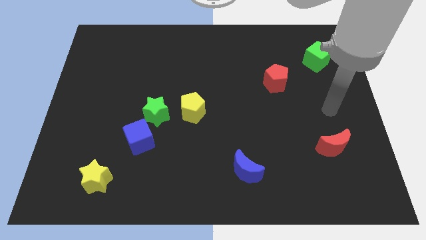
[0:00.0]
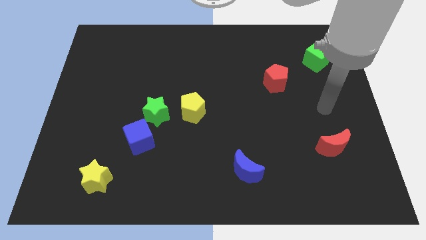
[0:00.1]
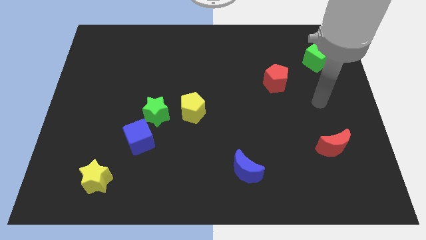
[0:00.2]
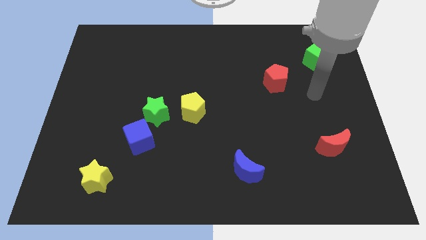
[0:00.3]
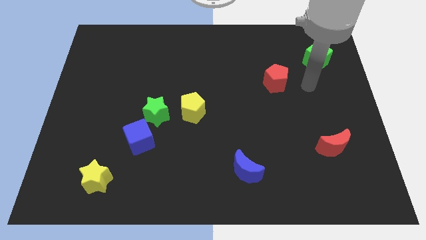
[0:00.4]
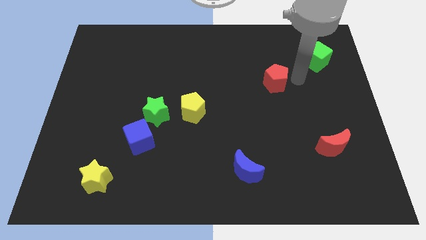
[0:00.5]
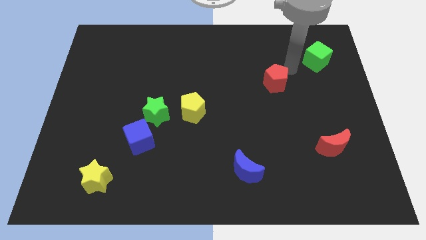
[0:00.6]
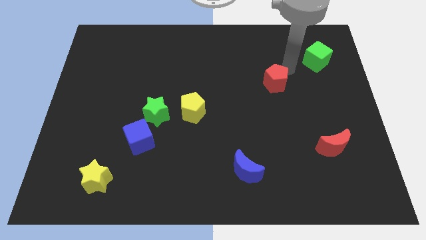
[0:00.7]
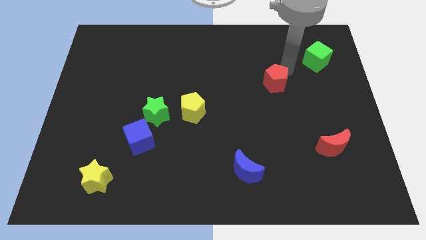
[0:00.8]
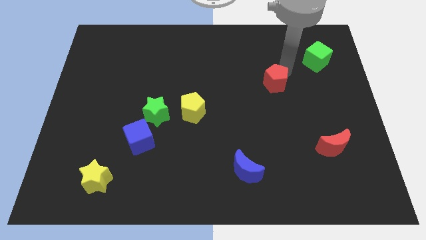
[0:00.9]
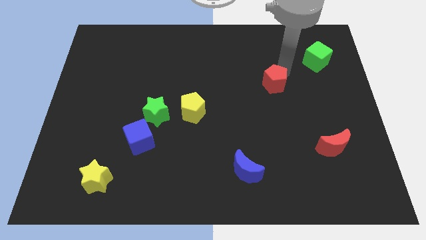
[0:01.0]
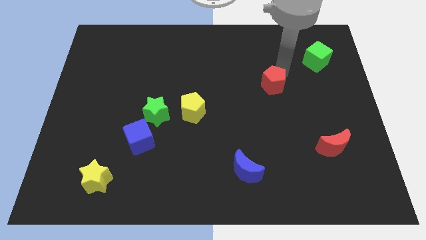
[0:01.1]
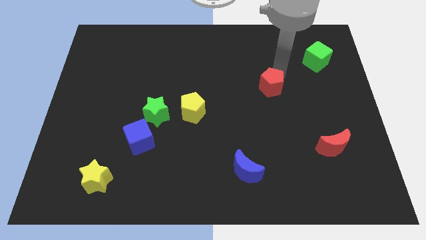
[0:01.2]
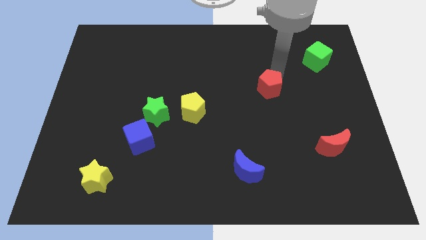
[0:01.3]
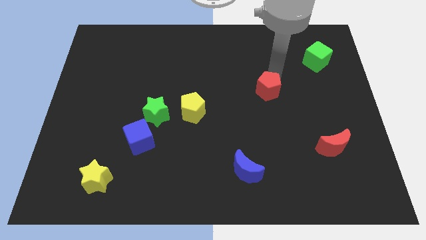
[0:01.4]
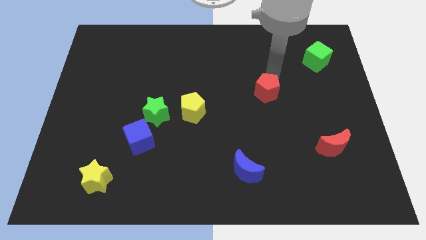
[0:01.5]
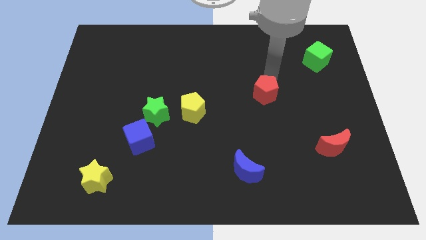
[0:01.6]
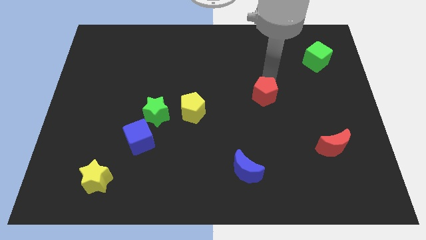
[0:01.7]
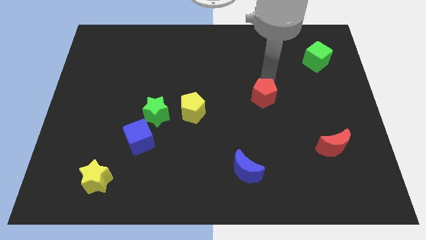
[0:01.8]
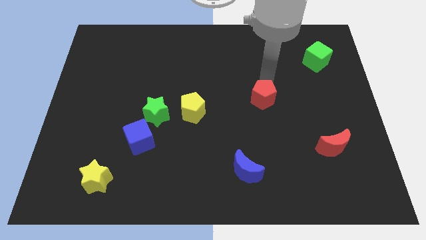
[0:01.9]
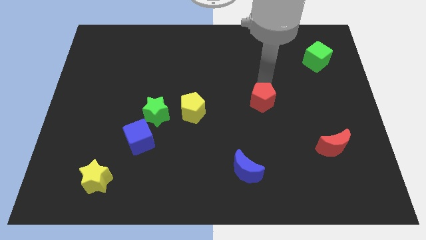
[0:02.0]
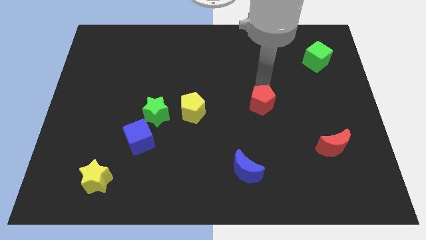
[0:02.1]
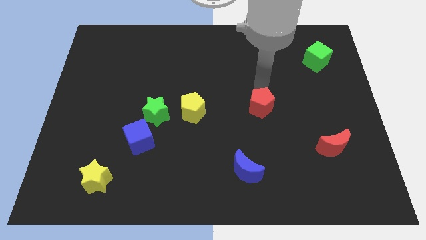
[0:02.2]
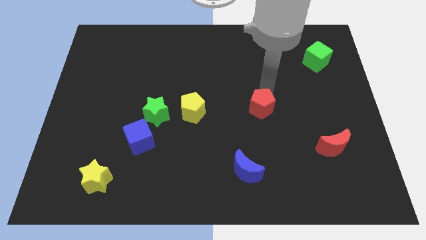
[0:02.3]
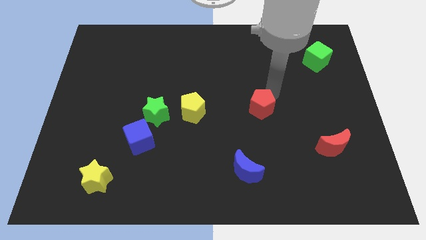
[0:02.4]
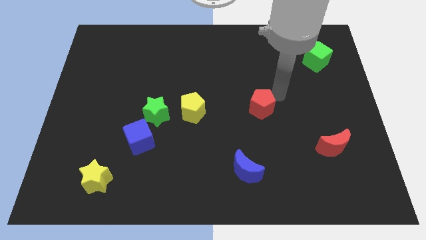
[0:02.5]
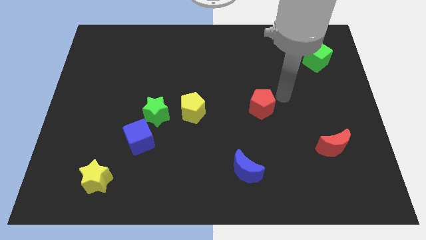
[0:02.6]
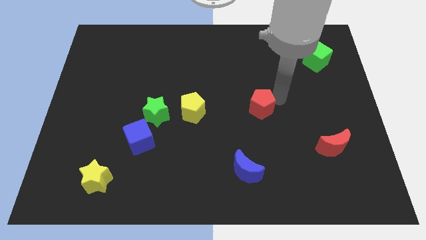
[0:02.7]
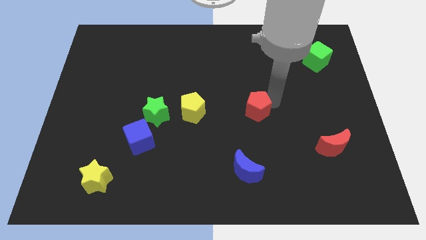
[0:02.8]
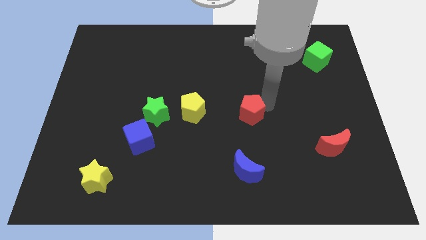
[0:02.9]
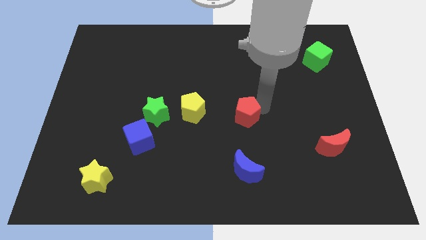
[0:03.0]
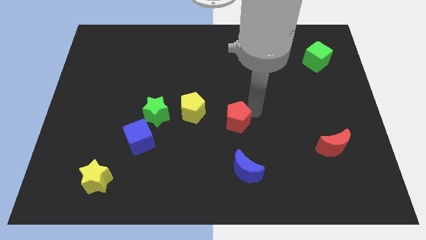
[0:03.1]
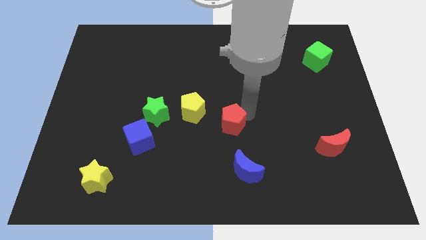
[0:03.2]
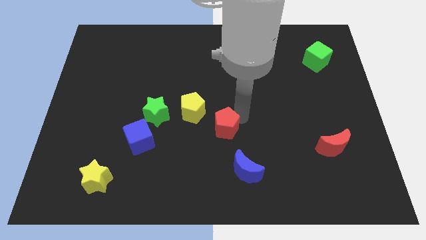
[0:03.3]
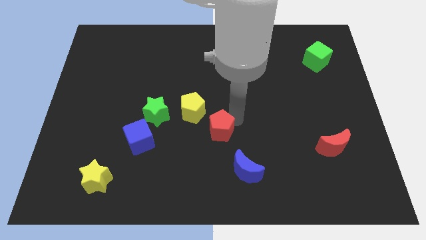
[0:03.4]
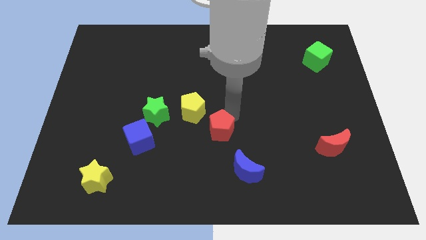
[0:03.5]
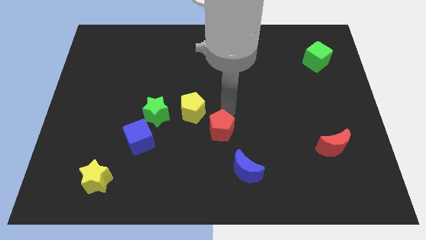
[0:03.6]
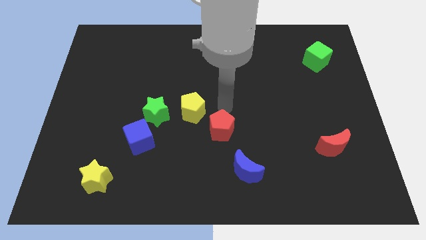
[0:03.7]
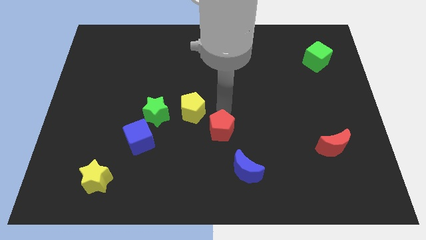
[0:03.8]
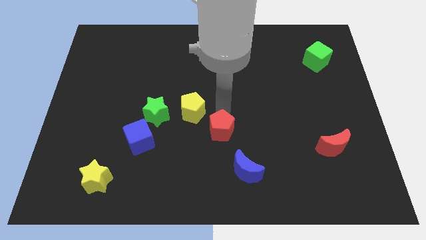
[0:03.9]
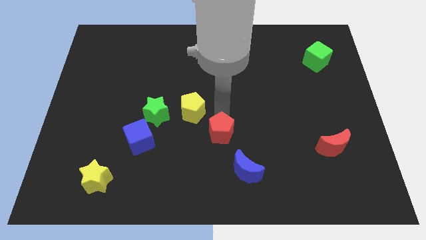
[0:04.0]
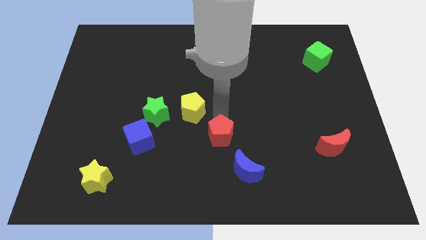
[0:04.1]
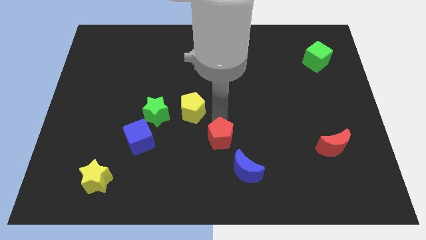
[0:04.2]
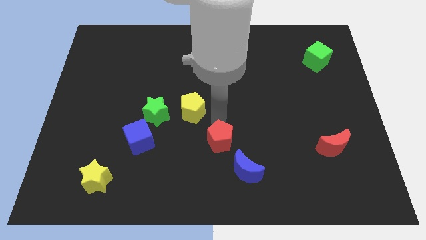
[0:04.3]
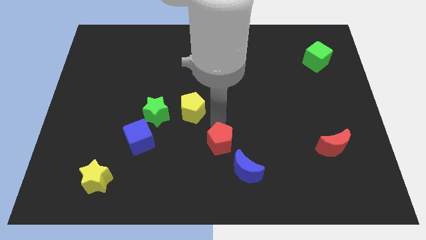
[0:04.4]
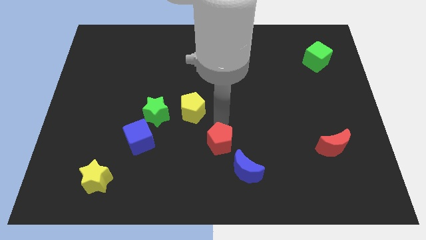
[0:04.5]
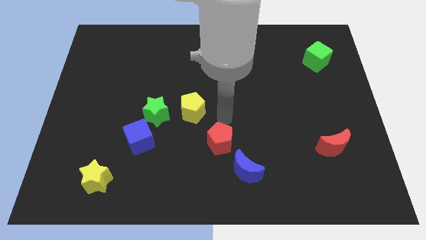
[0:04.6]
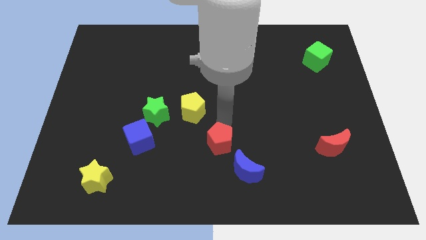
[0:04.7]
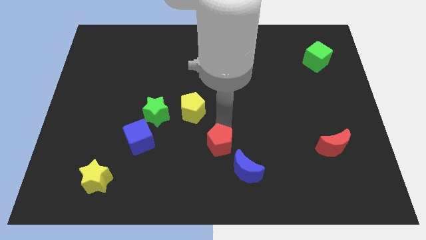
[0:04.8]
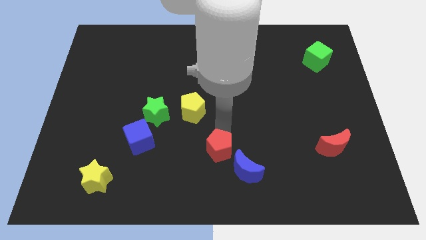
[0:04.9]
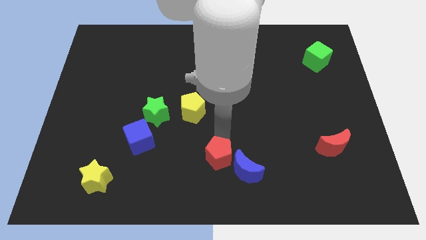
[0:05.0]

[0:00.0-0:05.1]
push the red pentagon to the bottom side

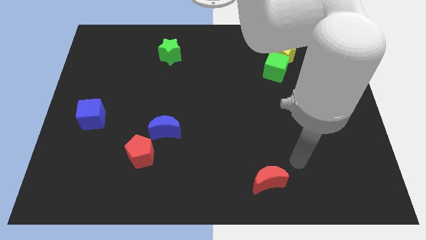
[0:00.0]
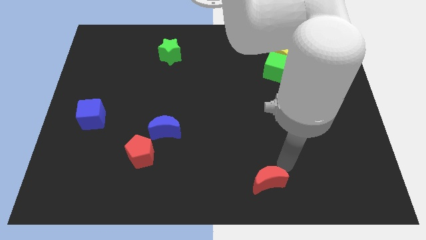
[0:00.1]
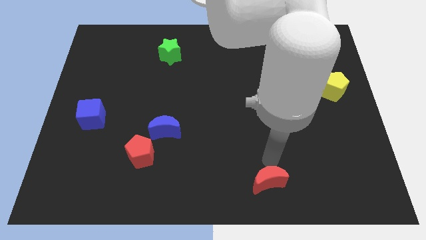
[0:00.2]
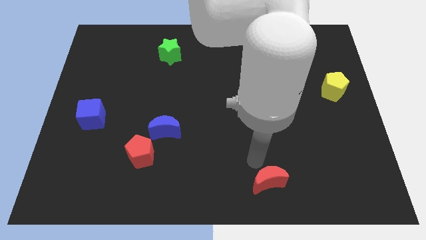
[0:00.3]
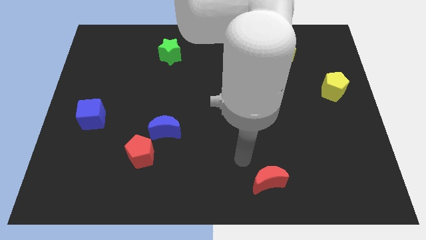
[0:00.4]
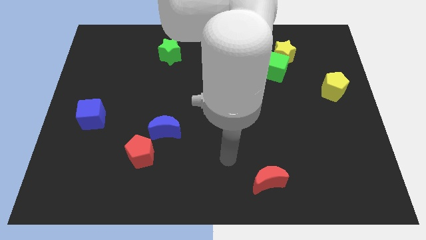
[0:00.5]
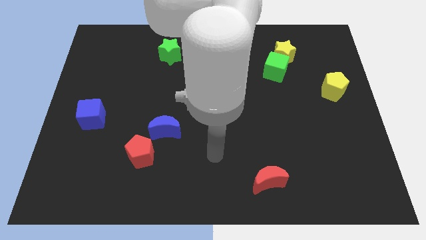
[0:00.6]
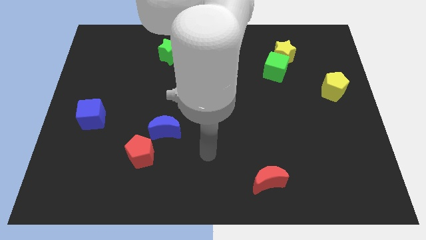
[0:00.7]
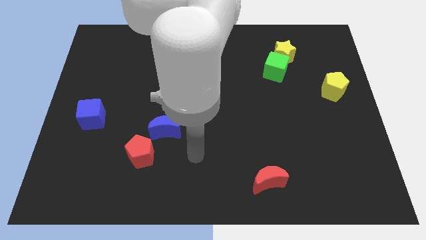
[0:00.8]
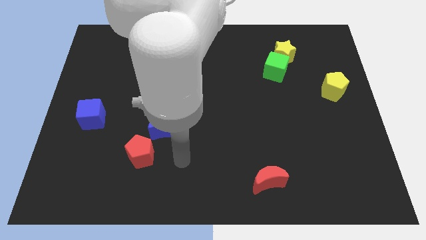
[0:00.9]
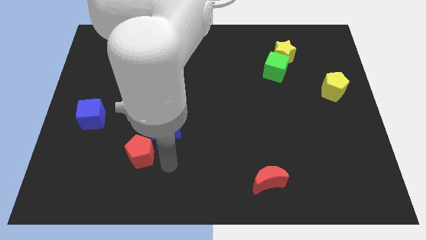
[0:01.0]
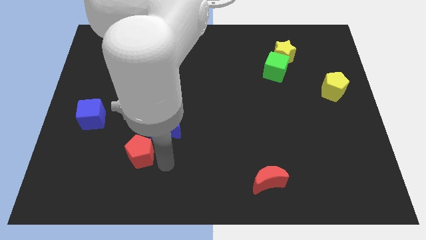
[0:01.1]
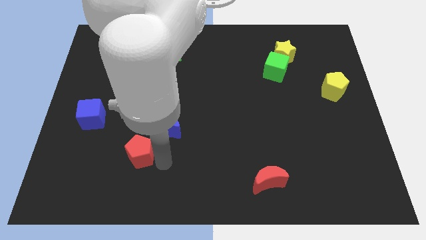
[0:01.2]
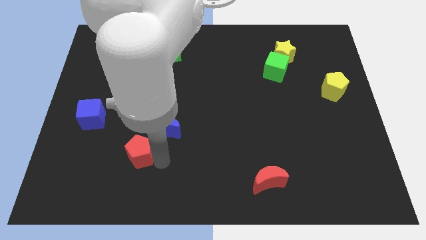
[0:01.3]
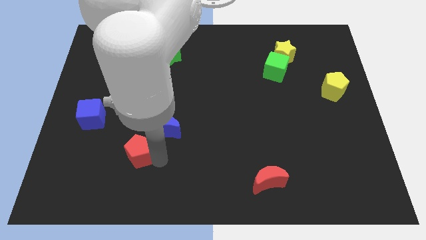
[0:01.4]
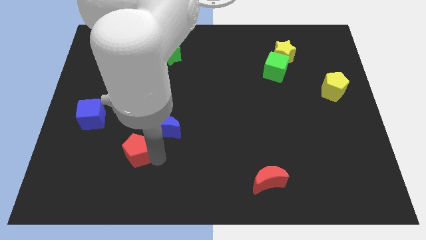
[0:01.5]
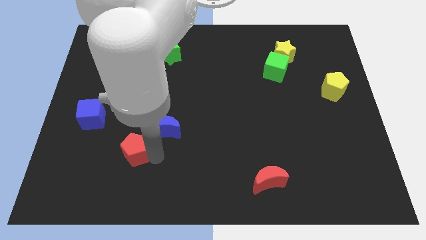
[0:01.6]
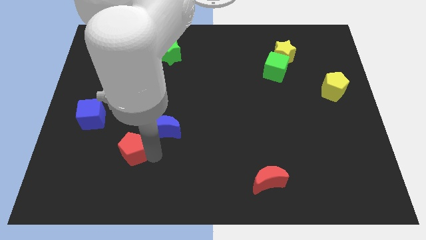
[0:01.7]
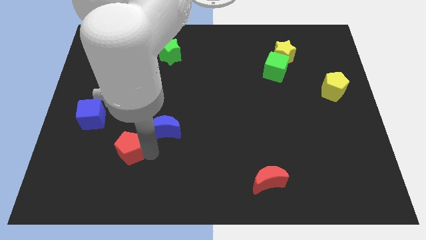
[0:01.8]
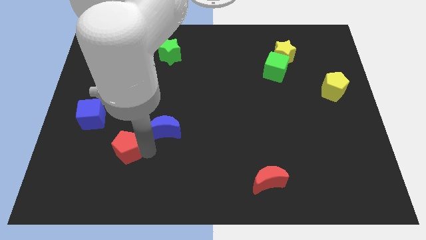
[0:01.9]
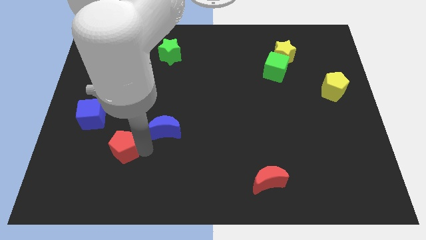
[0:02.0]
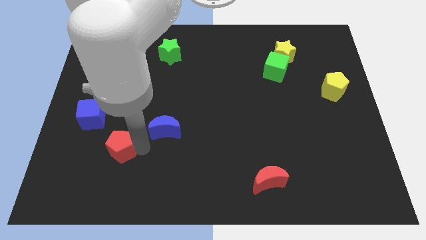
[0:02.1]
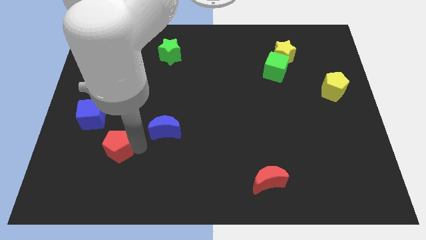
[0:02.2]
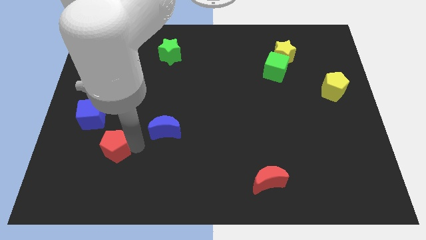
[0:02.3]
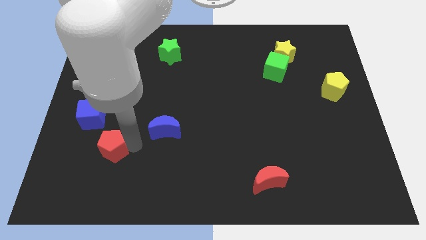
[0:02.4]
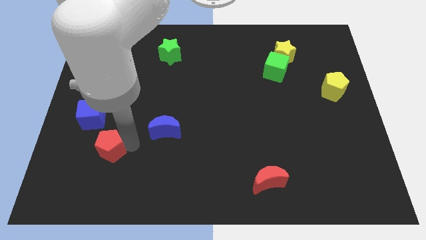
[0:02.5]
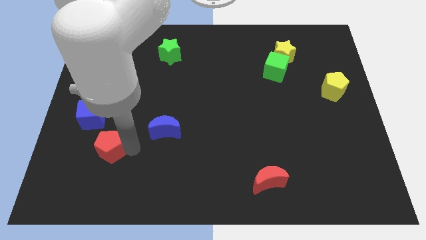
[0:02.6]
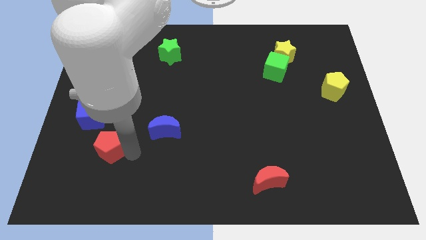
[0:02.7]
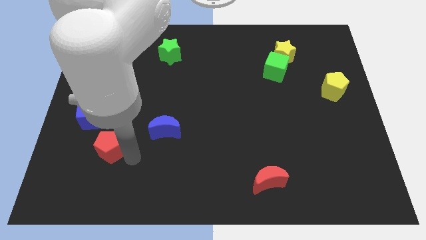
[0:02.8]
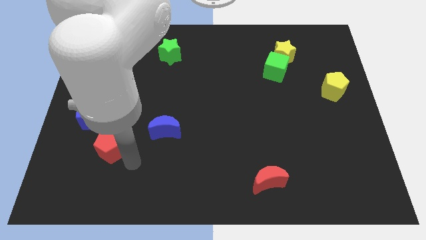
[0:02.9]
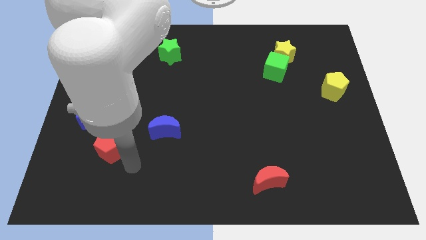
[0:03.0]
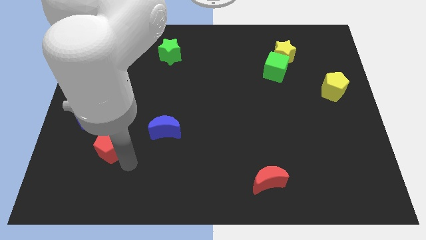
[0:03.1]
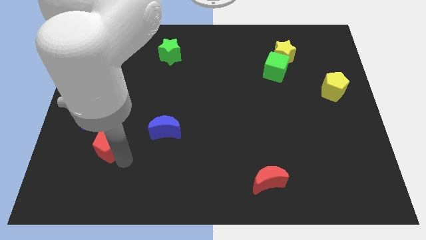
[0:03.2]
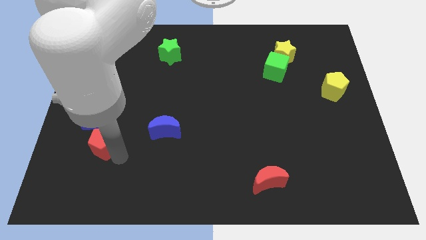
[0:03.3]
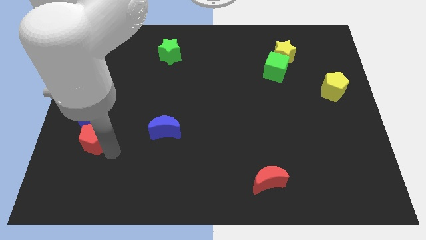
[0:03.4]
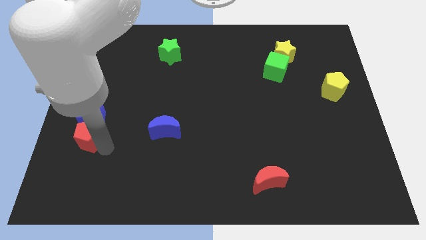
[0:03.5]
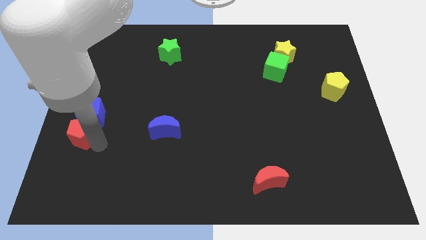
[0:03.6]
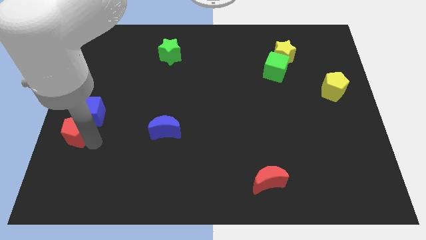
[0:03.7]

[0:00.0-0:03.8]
push the red pentagon to the left side of the board
